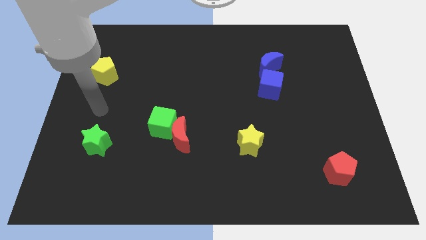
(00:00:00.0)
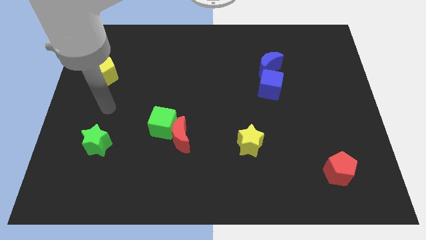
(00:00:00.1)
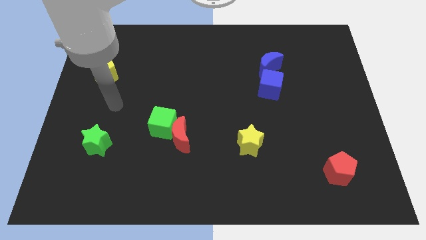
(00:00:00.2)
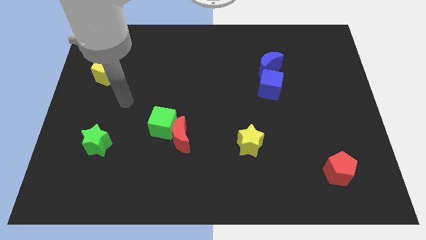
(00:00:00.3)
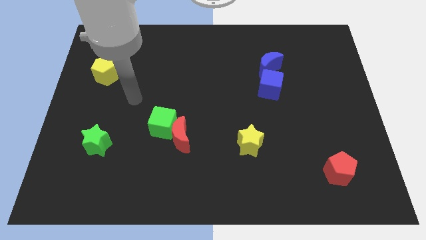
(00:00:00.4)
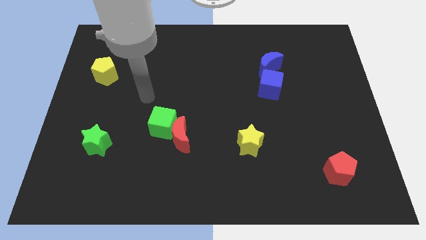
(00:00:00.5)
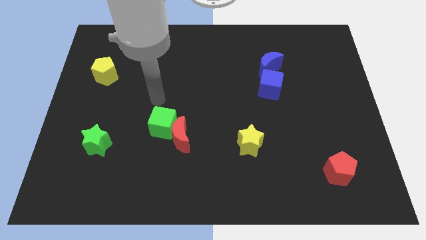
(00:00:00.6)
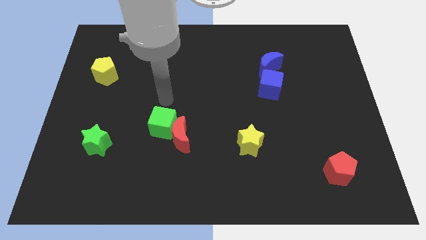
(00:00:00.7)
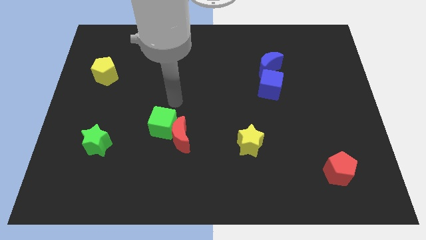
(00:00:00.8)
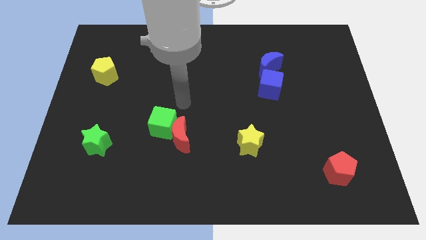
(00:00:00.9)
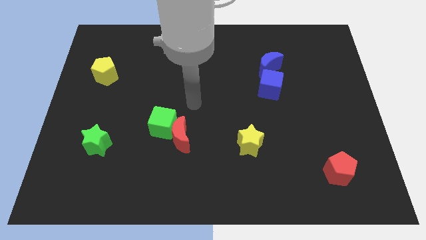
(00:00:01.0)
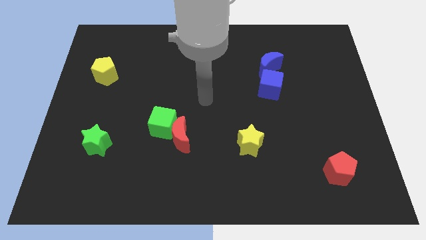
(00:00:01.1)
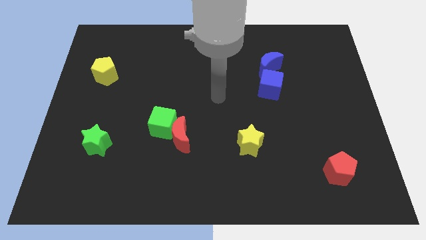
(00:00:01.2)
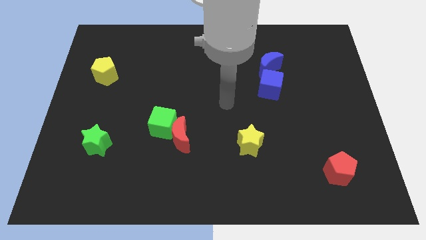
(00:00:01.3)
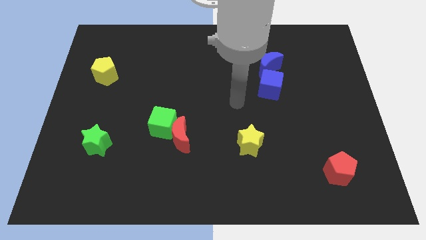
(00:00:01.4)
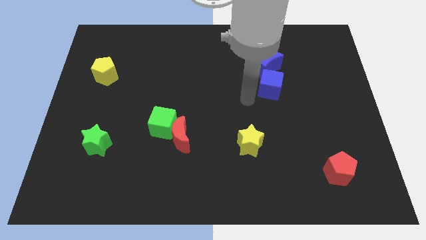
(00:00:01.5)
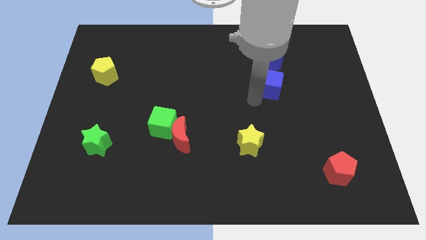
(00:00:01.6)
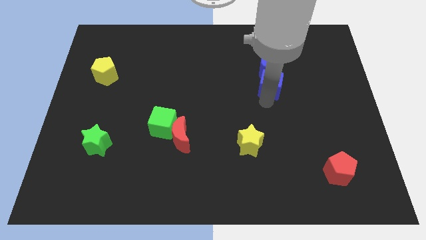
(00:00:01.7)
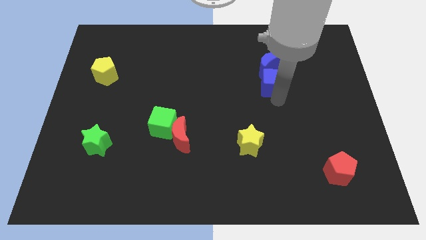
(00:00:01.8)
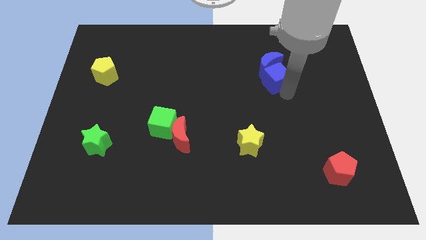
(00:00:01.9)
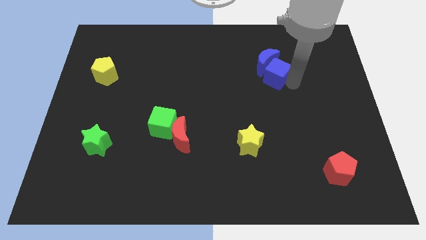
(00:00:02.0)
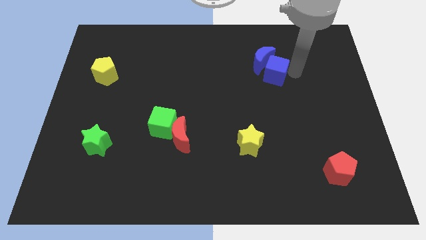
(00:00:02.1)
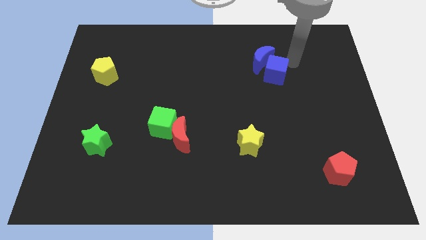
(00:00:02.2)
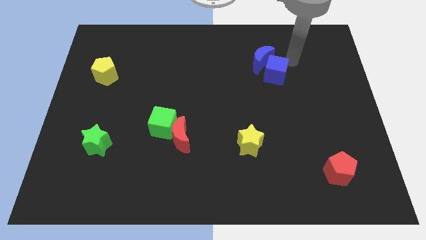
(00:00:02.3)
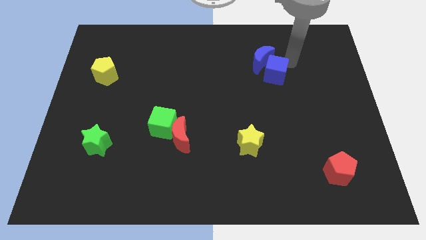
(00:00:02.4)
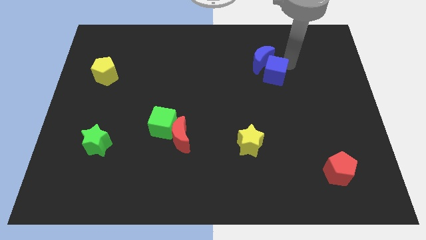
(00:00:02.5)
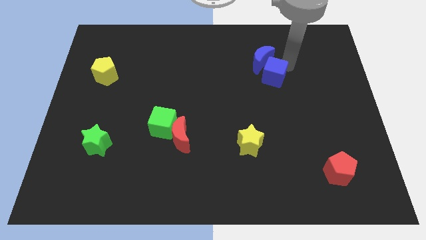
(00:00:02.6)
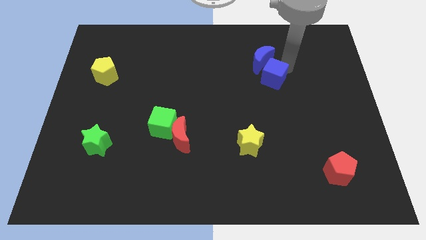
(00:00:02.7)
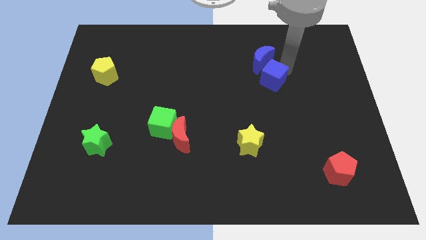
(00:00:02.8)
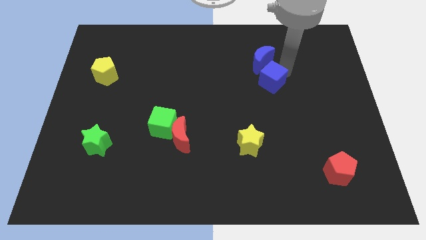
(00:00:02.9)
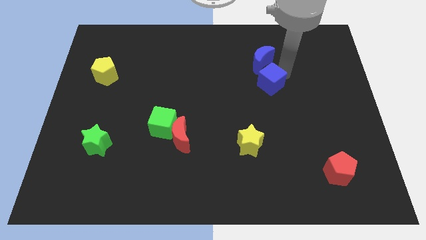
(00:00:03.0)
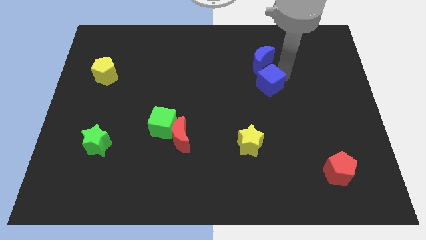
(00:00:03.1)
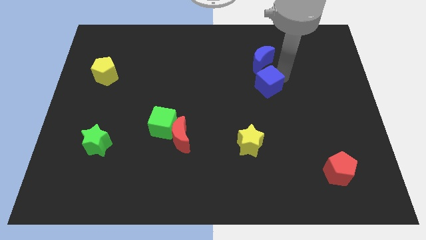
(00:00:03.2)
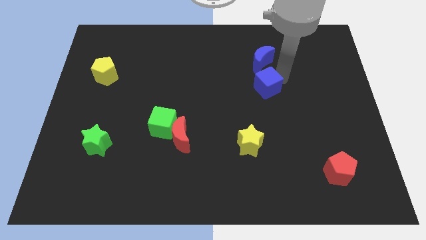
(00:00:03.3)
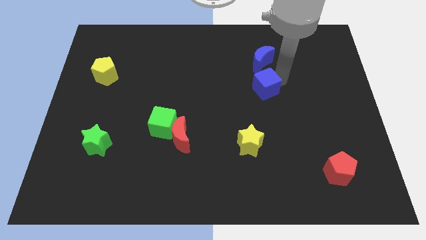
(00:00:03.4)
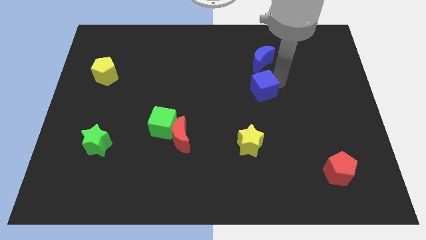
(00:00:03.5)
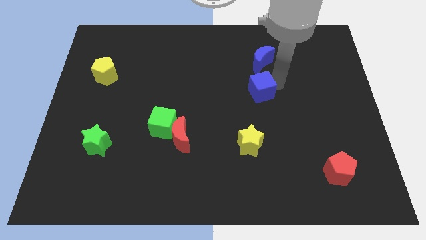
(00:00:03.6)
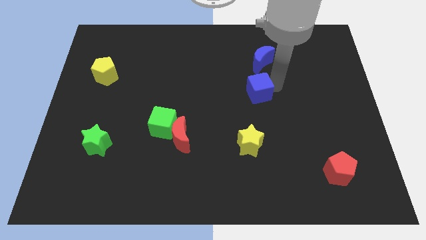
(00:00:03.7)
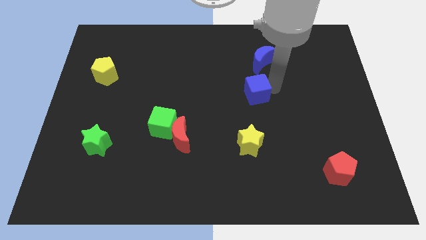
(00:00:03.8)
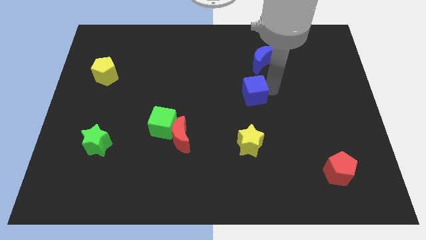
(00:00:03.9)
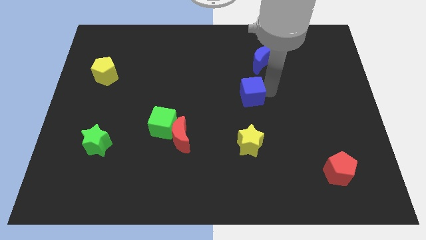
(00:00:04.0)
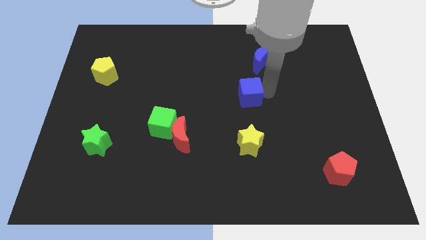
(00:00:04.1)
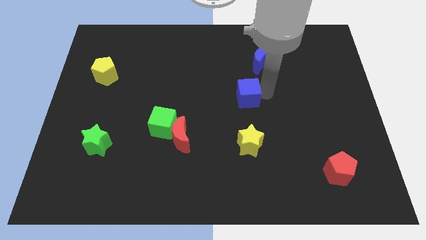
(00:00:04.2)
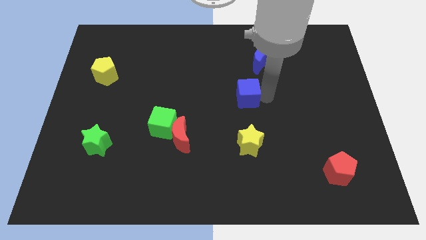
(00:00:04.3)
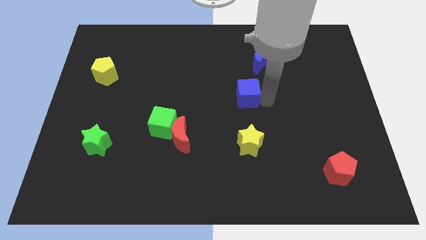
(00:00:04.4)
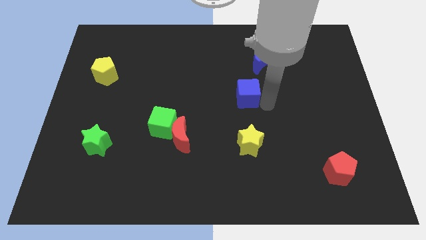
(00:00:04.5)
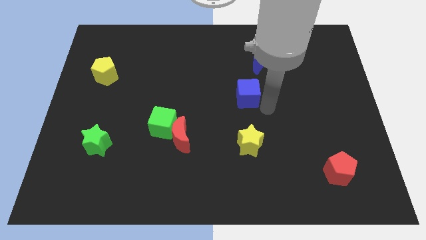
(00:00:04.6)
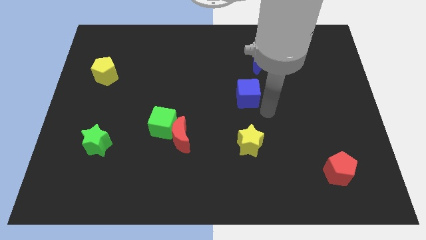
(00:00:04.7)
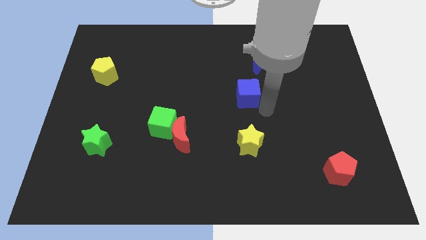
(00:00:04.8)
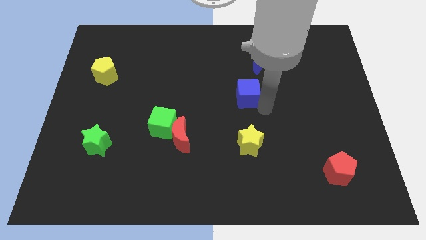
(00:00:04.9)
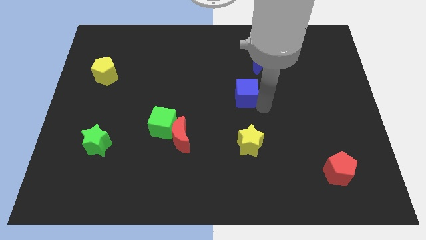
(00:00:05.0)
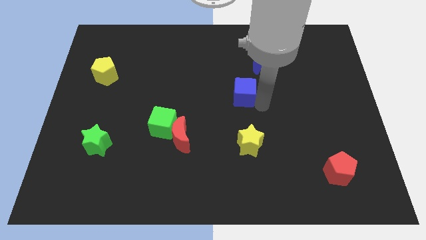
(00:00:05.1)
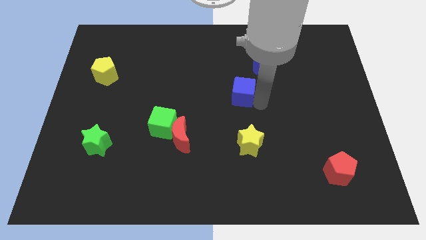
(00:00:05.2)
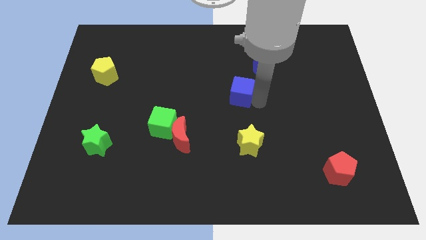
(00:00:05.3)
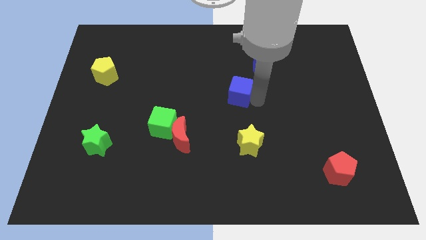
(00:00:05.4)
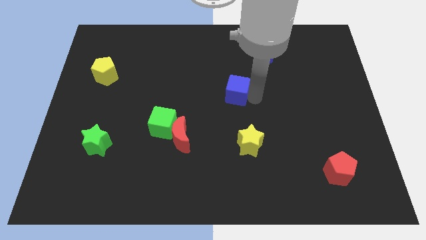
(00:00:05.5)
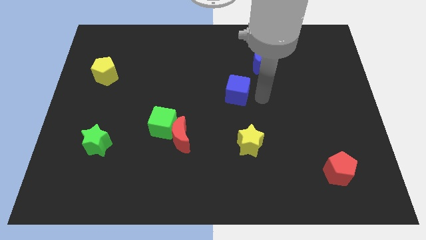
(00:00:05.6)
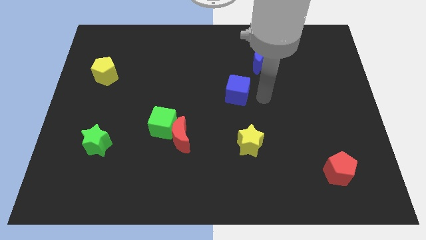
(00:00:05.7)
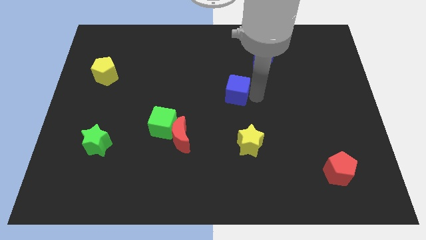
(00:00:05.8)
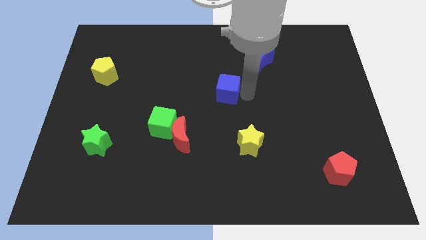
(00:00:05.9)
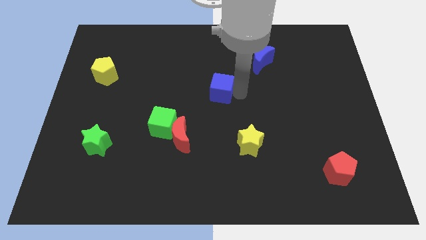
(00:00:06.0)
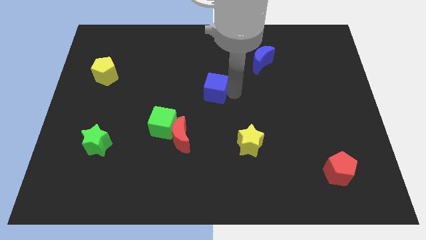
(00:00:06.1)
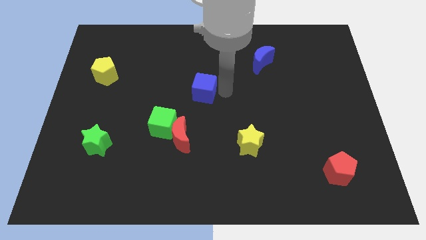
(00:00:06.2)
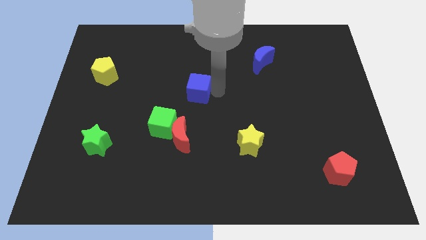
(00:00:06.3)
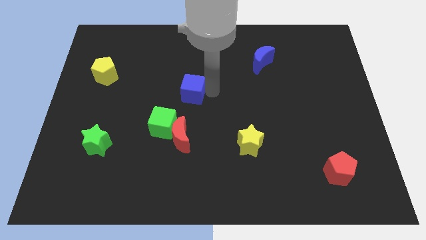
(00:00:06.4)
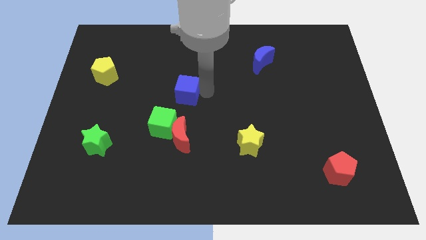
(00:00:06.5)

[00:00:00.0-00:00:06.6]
push the blue cube to the left

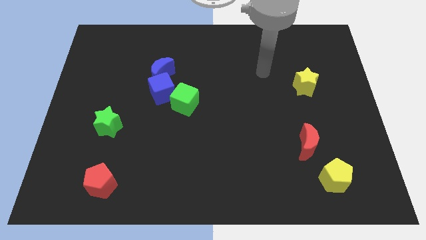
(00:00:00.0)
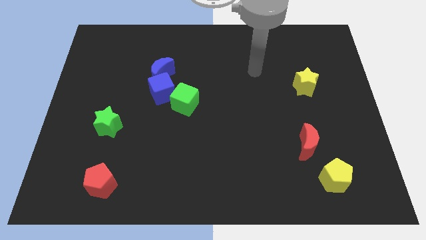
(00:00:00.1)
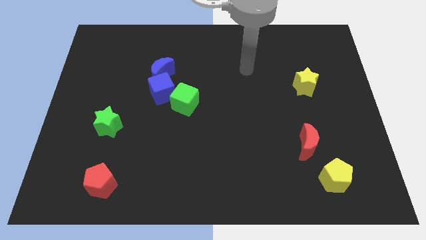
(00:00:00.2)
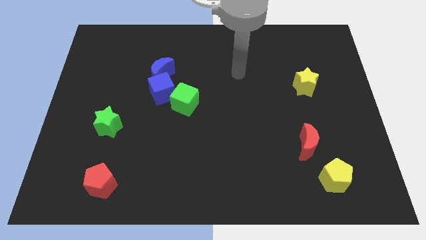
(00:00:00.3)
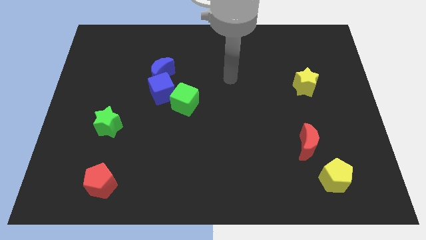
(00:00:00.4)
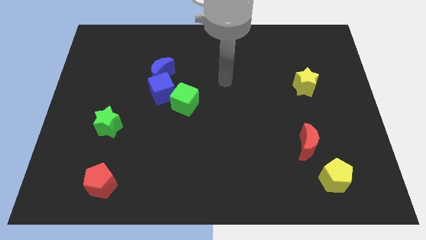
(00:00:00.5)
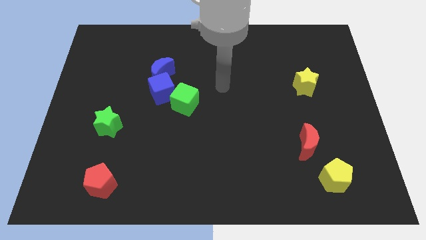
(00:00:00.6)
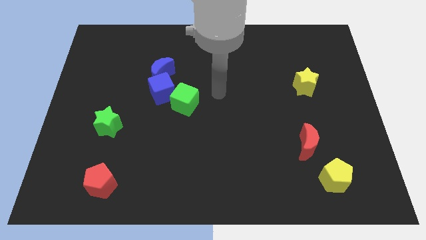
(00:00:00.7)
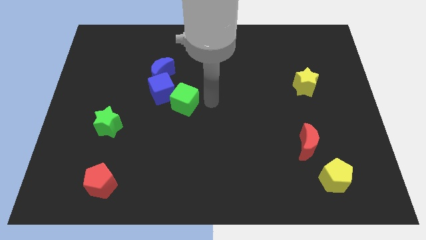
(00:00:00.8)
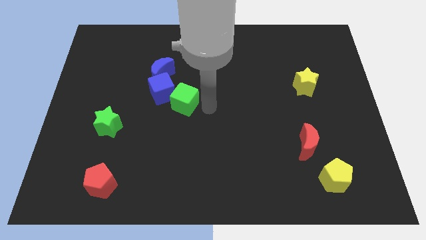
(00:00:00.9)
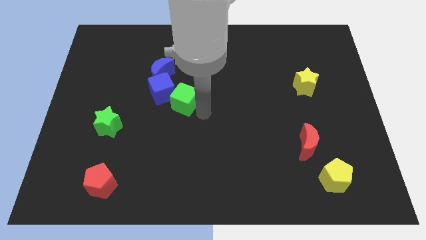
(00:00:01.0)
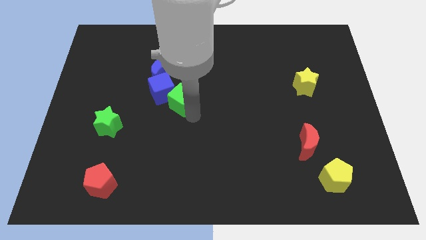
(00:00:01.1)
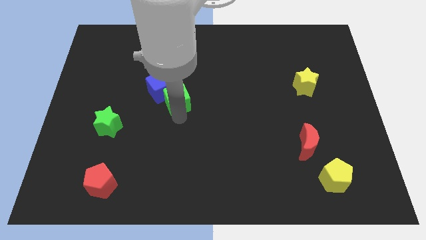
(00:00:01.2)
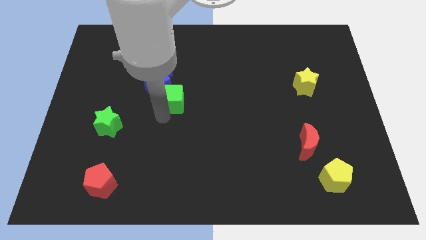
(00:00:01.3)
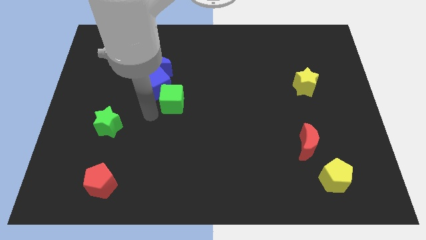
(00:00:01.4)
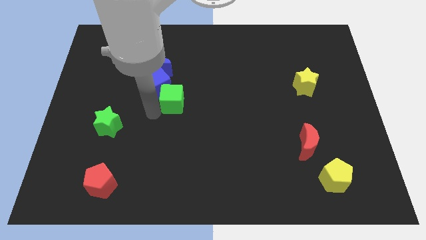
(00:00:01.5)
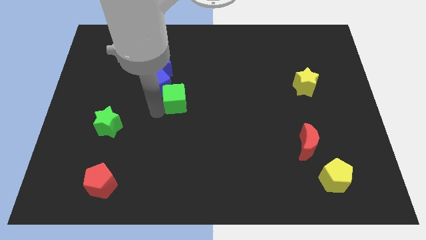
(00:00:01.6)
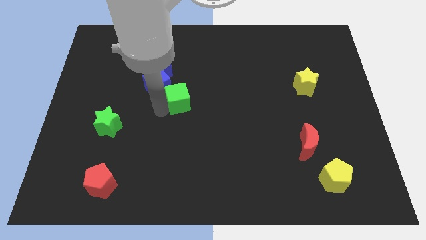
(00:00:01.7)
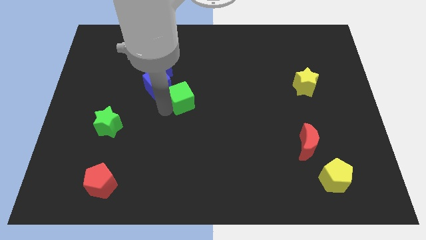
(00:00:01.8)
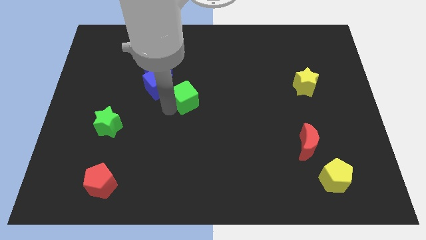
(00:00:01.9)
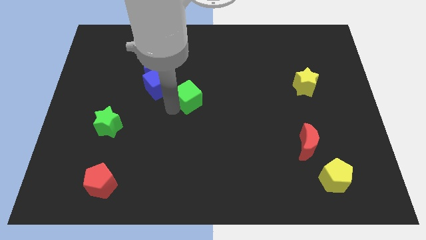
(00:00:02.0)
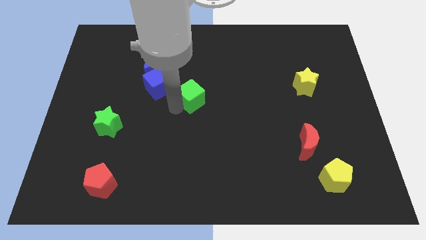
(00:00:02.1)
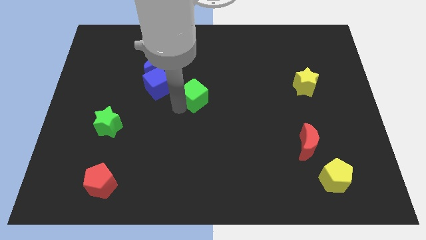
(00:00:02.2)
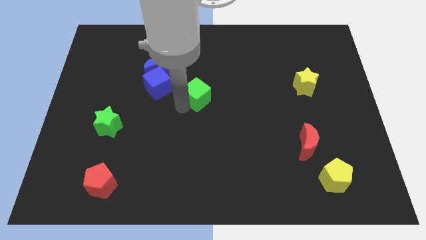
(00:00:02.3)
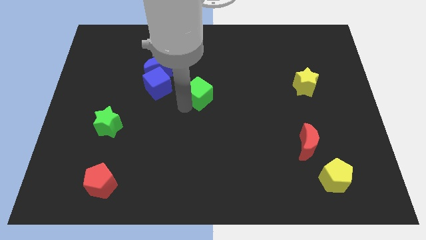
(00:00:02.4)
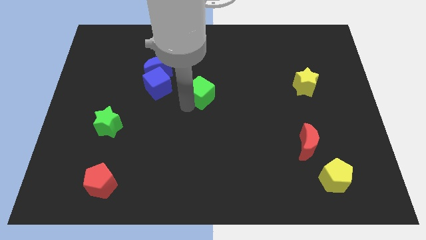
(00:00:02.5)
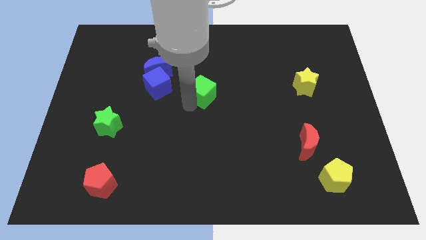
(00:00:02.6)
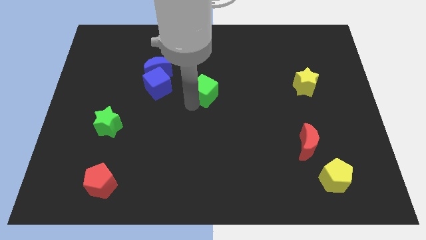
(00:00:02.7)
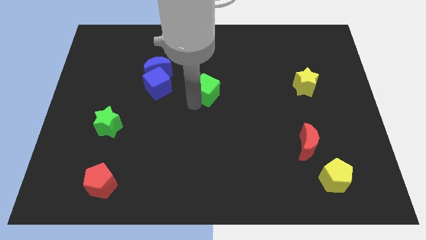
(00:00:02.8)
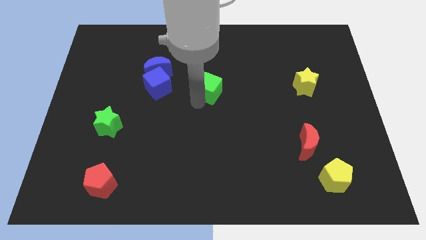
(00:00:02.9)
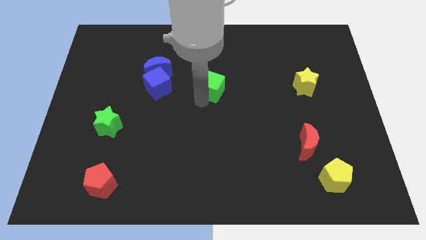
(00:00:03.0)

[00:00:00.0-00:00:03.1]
move the green cube a little bit up and then right
